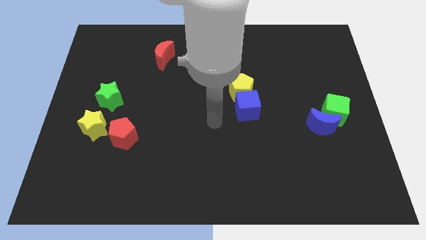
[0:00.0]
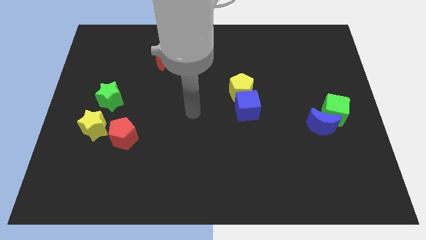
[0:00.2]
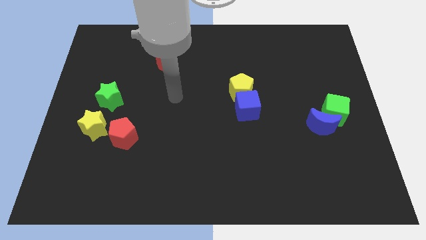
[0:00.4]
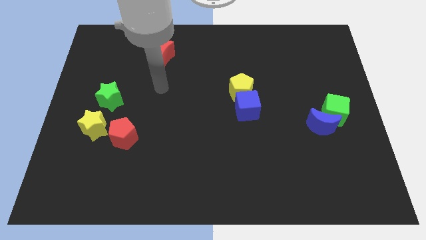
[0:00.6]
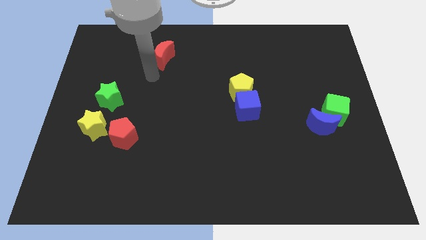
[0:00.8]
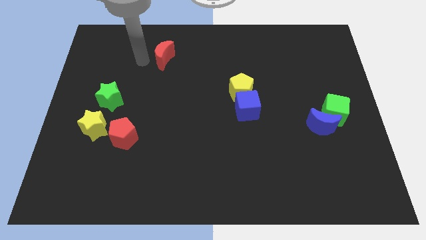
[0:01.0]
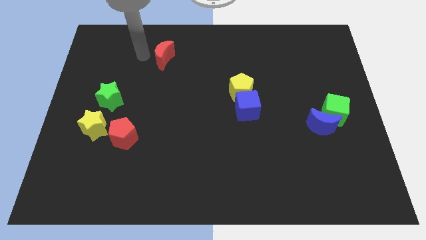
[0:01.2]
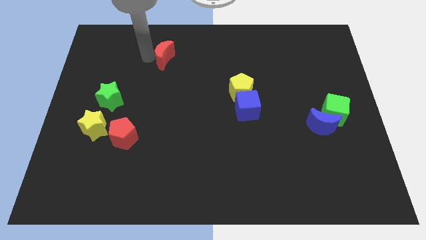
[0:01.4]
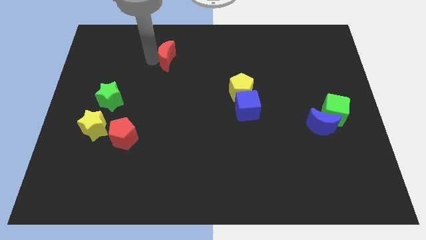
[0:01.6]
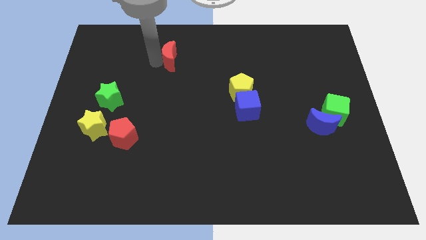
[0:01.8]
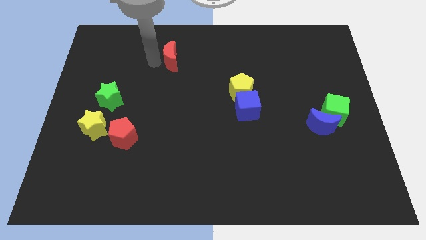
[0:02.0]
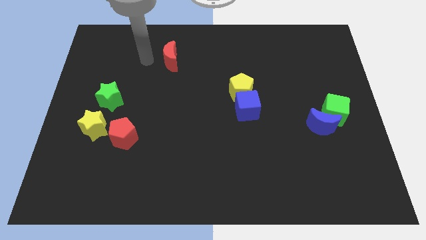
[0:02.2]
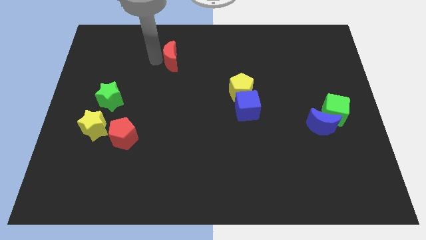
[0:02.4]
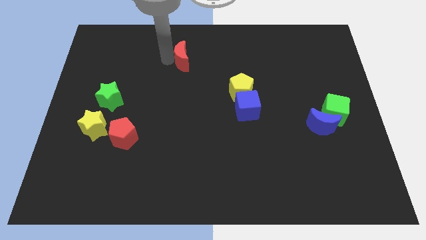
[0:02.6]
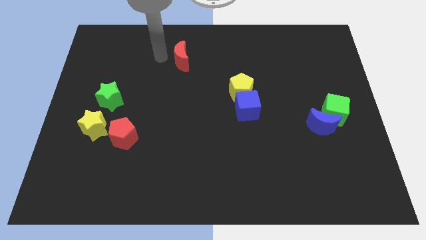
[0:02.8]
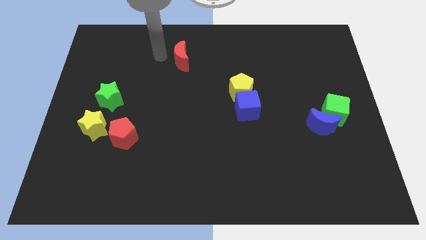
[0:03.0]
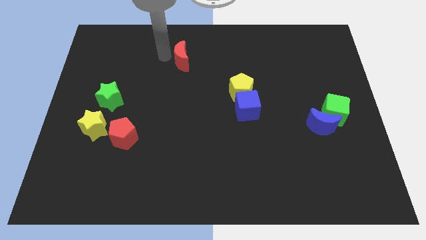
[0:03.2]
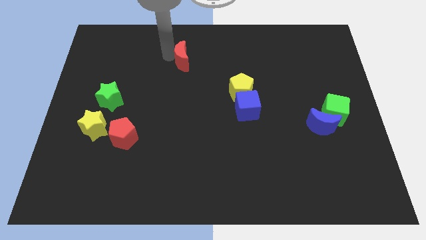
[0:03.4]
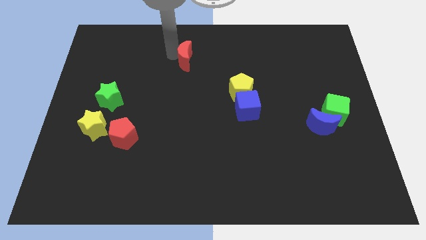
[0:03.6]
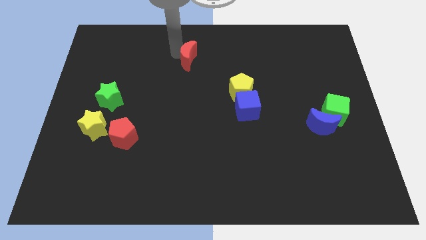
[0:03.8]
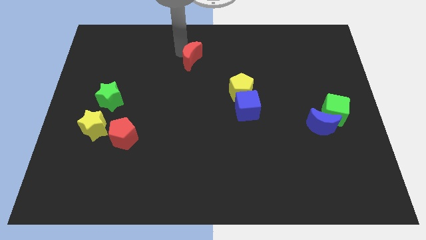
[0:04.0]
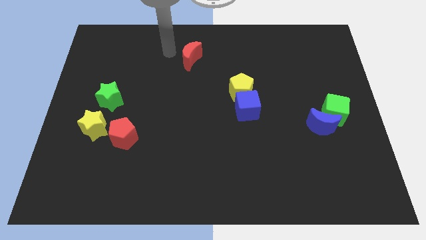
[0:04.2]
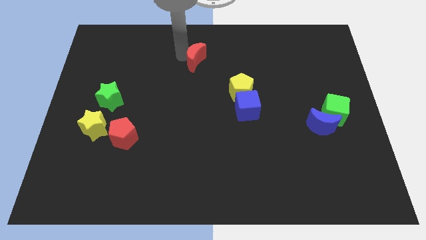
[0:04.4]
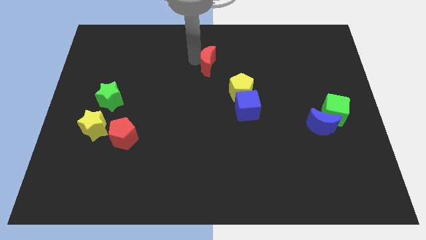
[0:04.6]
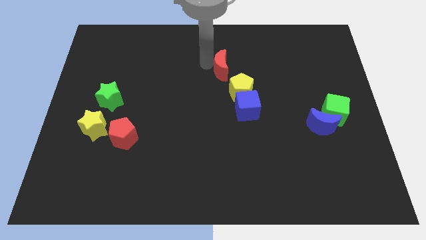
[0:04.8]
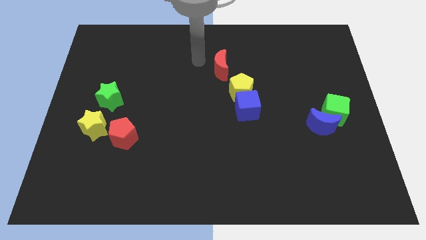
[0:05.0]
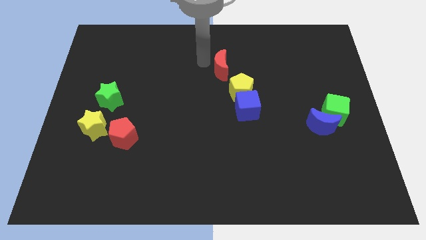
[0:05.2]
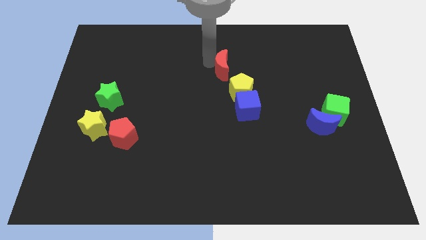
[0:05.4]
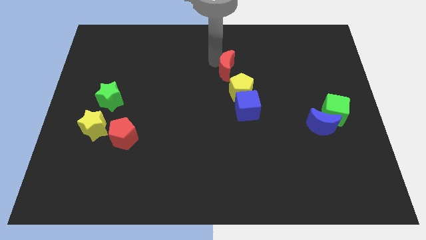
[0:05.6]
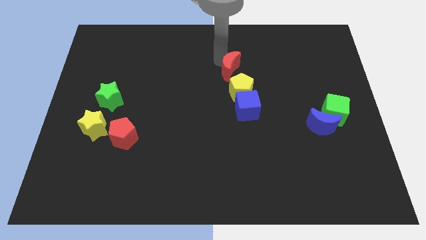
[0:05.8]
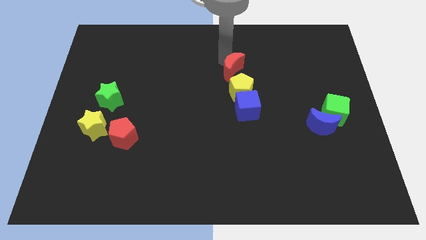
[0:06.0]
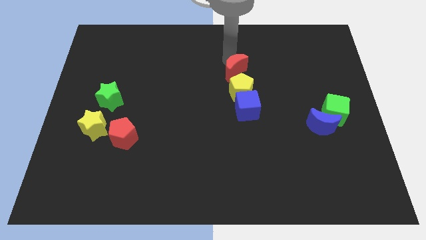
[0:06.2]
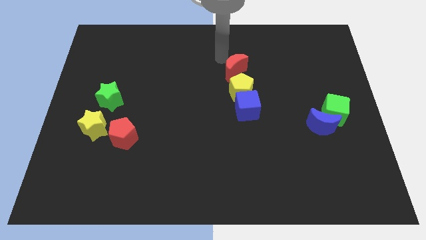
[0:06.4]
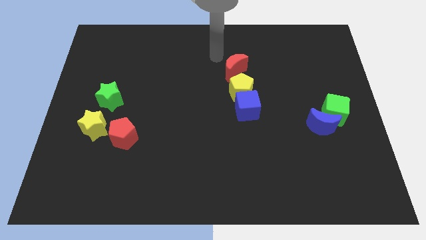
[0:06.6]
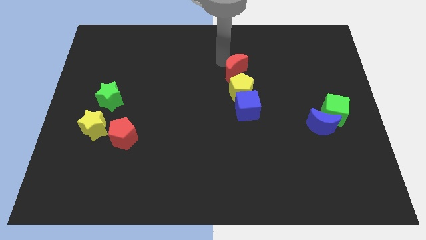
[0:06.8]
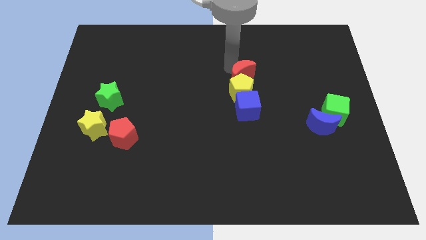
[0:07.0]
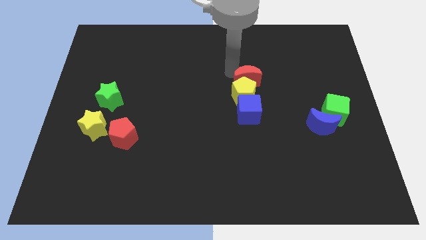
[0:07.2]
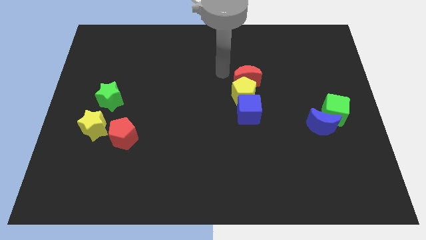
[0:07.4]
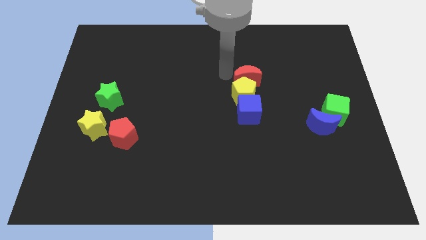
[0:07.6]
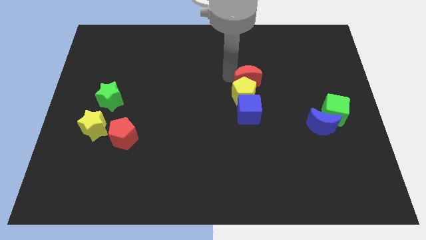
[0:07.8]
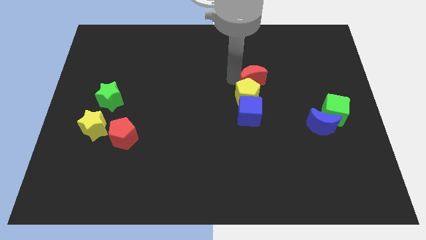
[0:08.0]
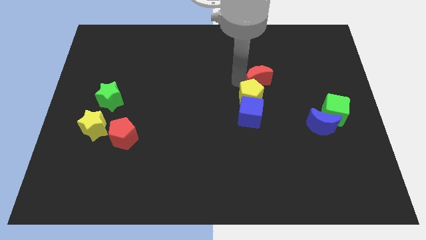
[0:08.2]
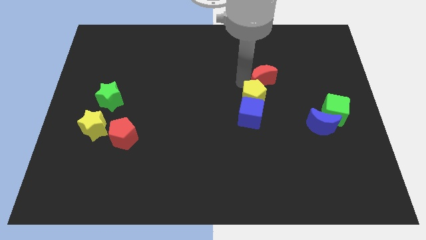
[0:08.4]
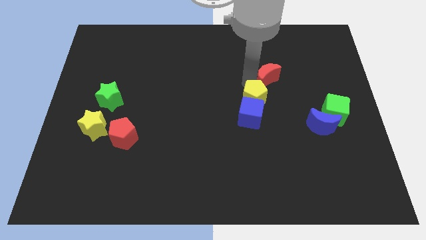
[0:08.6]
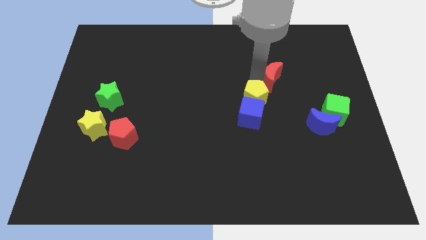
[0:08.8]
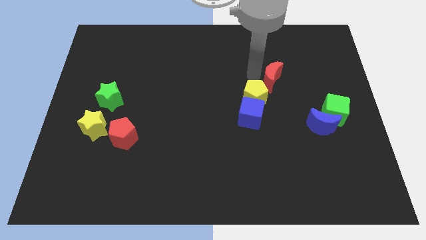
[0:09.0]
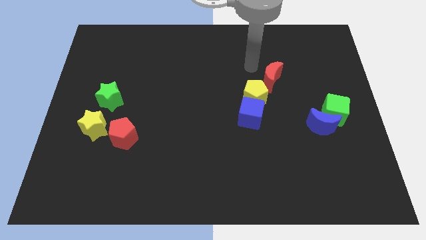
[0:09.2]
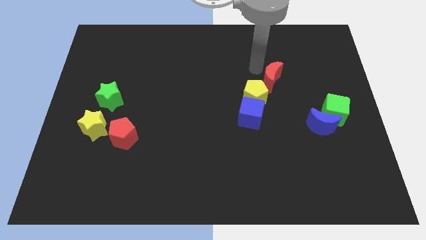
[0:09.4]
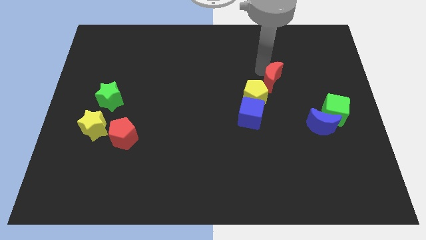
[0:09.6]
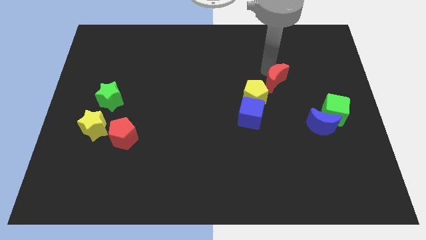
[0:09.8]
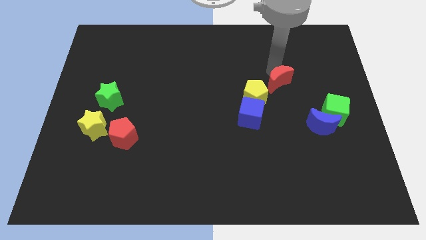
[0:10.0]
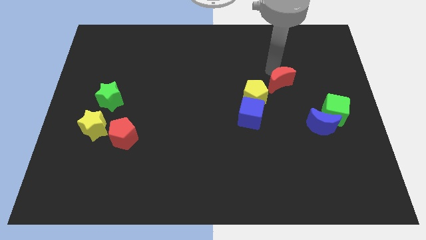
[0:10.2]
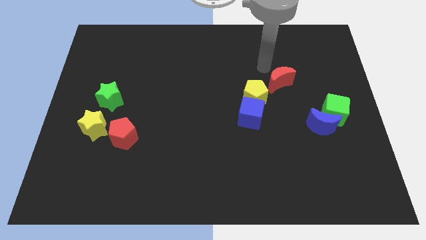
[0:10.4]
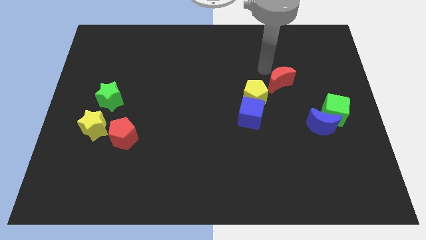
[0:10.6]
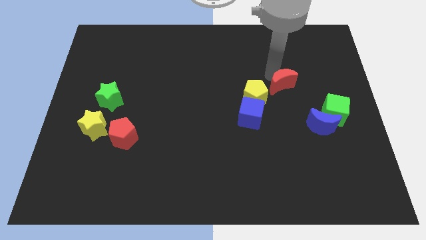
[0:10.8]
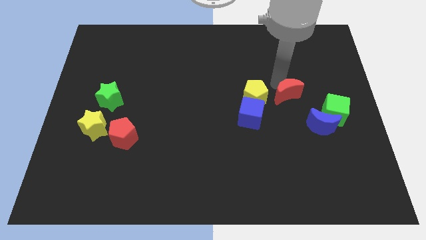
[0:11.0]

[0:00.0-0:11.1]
push the red moon diagonally up and to the left of the green cube

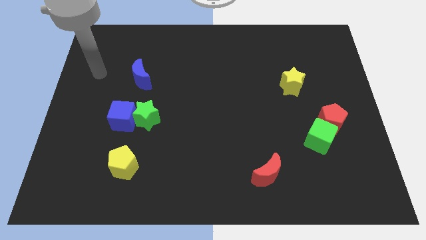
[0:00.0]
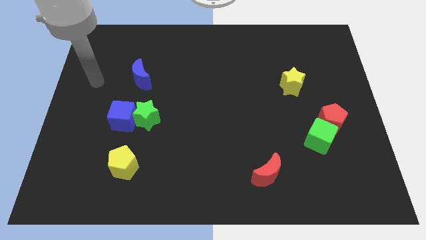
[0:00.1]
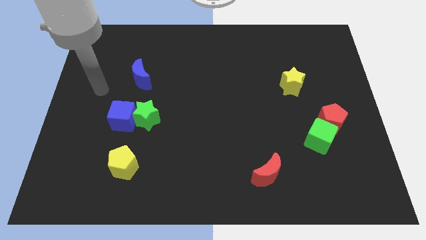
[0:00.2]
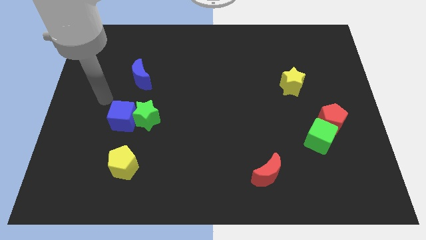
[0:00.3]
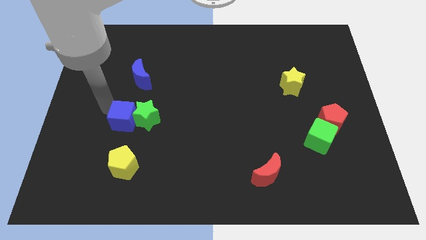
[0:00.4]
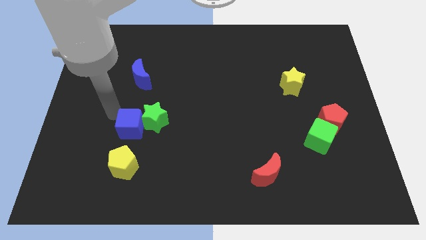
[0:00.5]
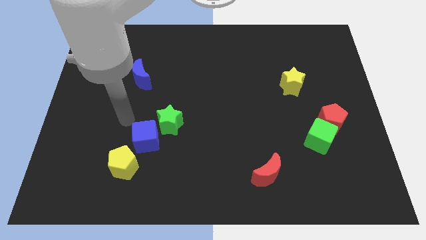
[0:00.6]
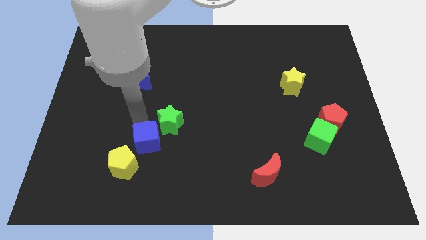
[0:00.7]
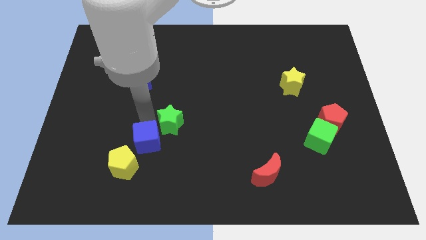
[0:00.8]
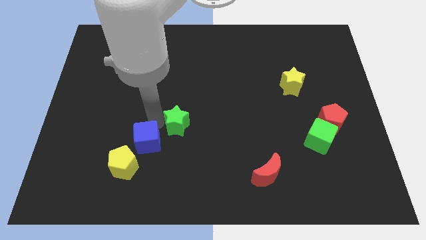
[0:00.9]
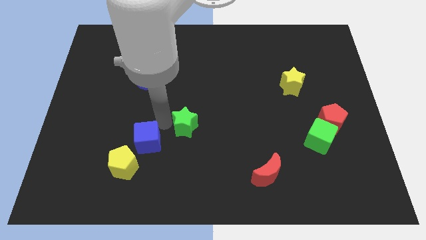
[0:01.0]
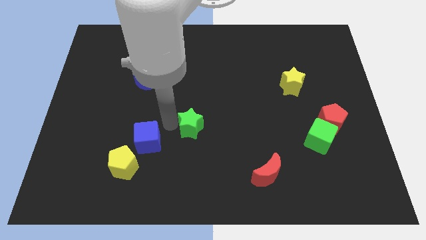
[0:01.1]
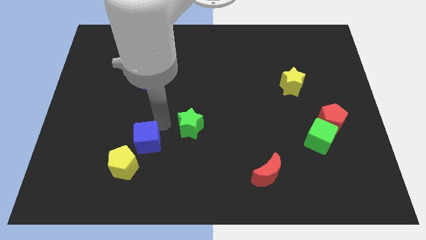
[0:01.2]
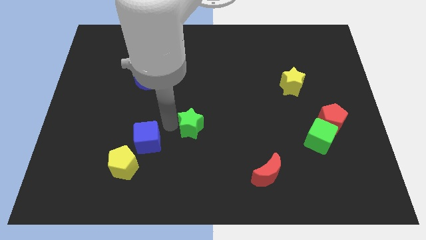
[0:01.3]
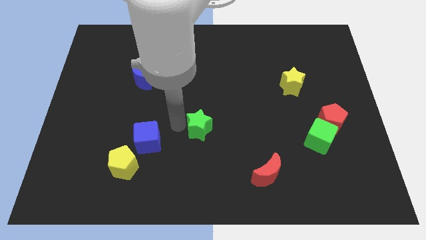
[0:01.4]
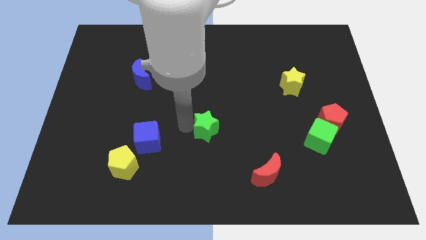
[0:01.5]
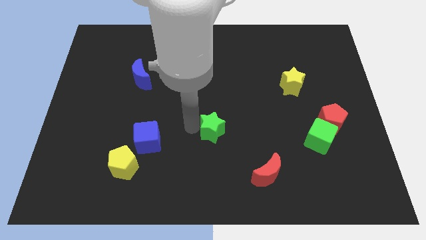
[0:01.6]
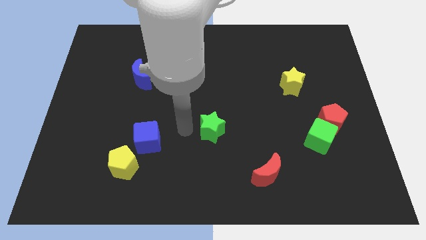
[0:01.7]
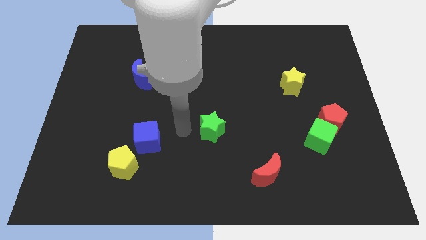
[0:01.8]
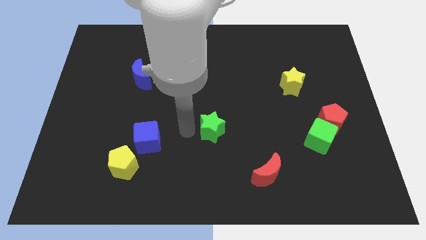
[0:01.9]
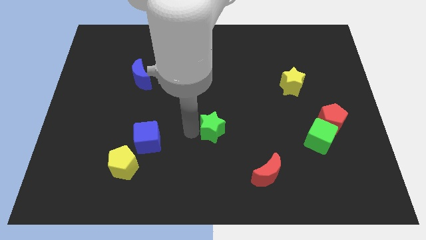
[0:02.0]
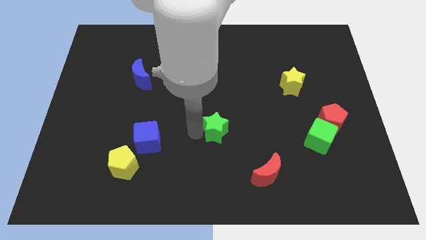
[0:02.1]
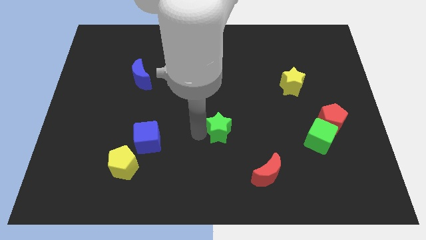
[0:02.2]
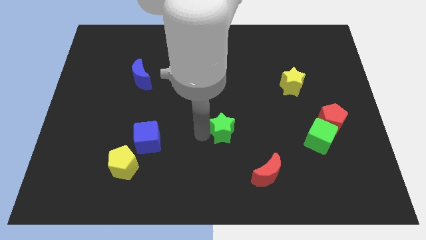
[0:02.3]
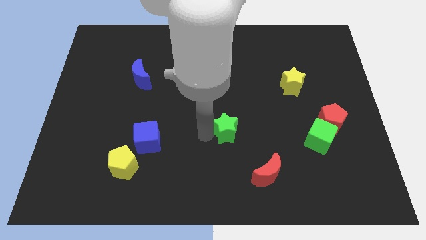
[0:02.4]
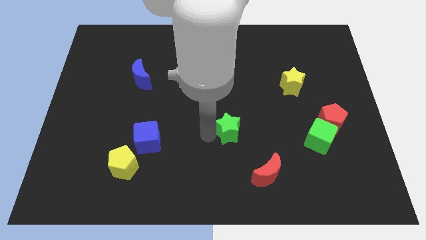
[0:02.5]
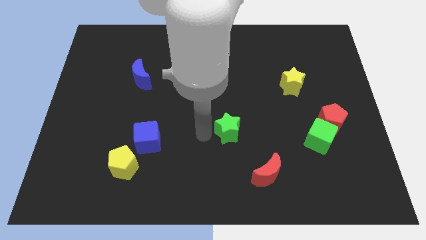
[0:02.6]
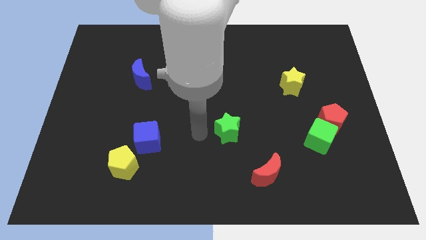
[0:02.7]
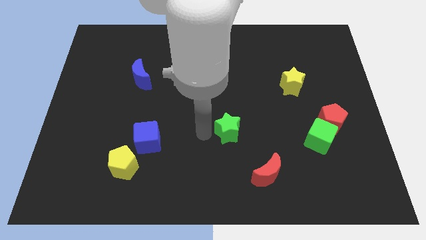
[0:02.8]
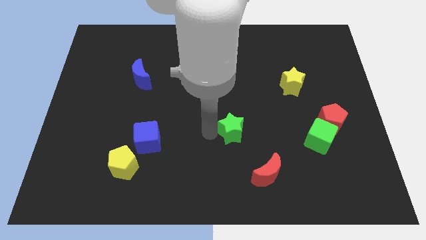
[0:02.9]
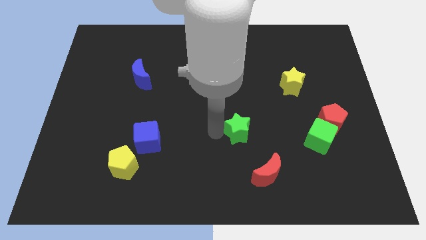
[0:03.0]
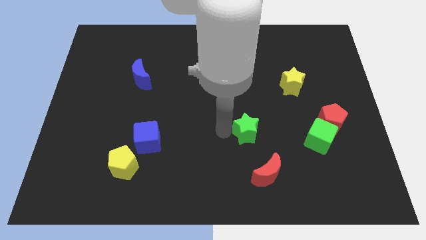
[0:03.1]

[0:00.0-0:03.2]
push the green star to the top of the red moon

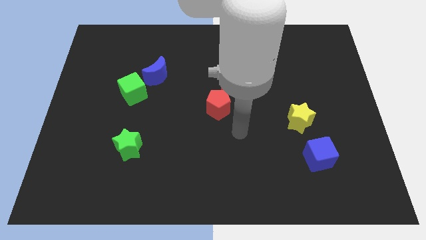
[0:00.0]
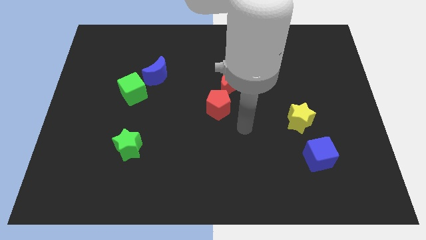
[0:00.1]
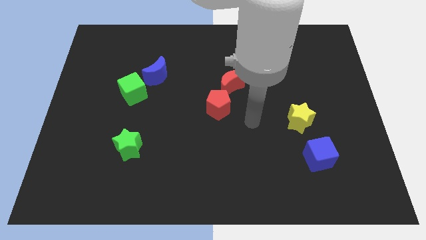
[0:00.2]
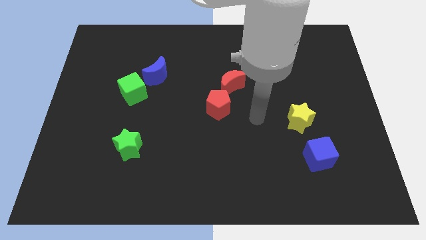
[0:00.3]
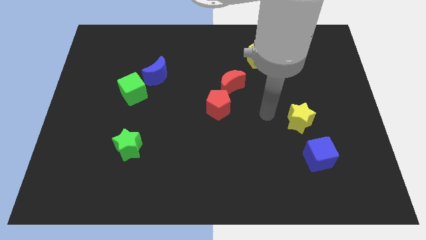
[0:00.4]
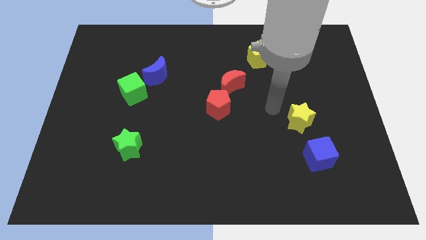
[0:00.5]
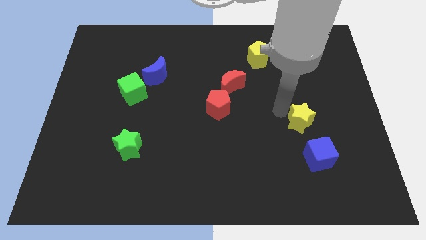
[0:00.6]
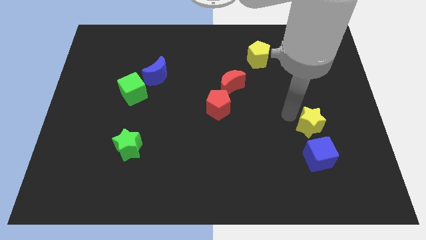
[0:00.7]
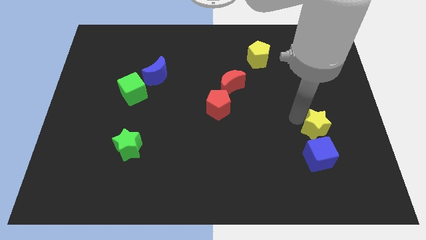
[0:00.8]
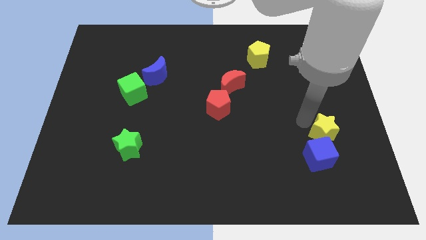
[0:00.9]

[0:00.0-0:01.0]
put the yellow star to the top right side of the blue cube
